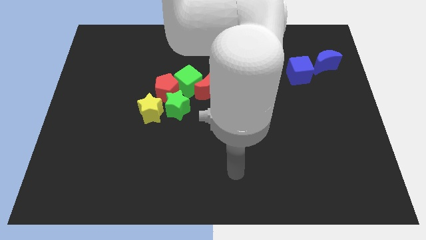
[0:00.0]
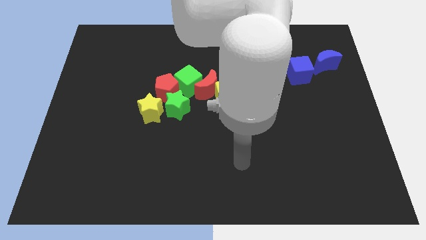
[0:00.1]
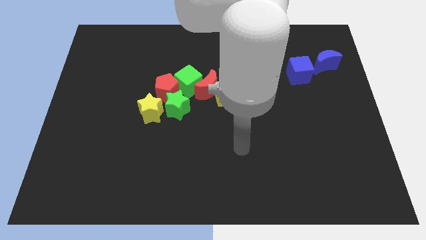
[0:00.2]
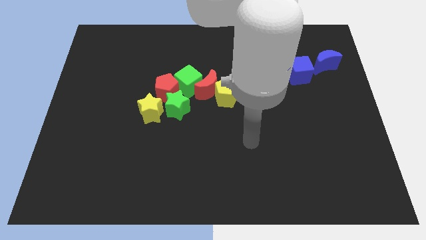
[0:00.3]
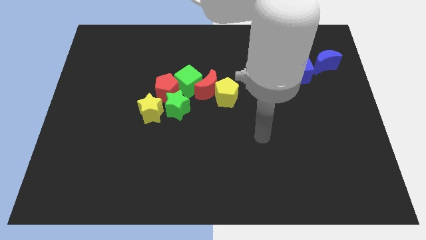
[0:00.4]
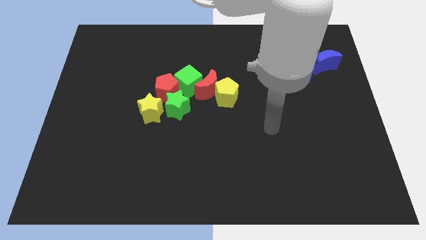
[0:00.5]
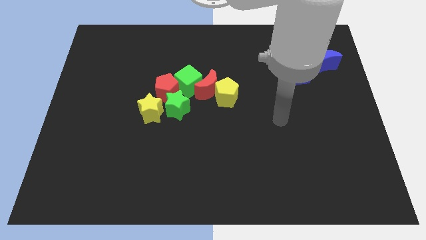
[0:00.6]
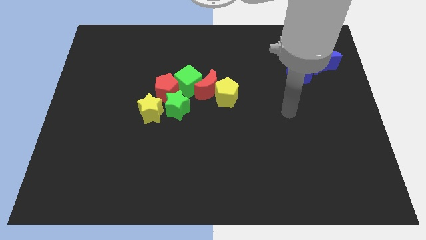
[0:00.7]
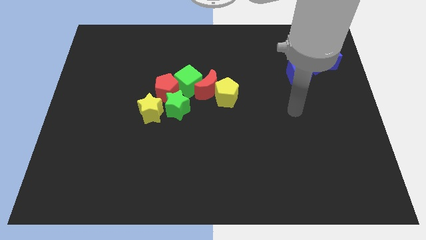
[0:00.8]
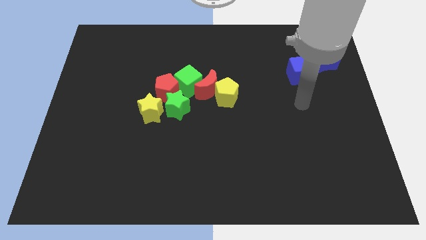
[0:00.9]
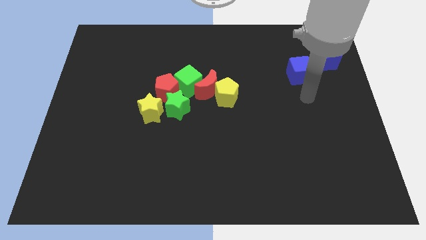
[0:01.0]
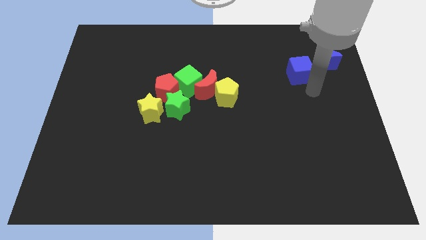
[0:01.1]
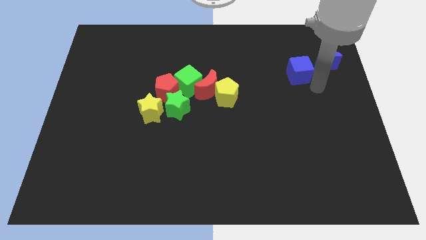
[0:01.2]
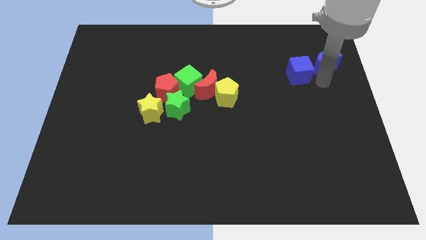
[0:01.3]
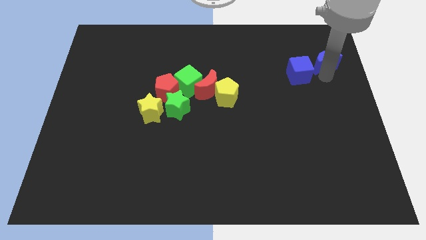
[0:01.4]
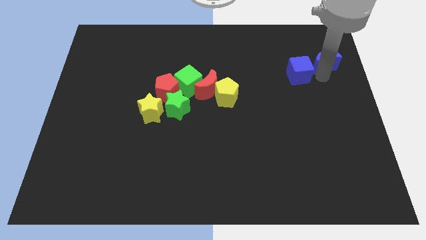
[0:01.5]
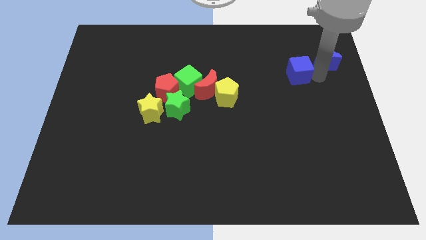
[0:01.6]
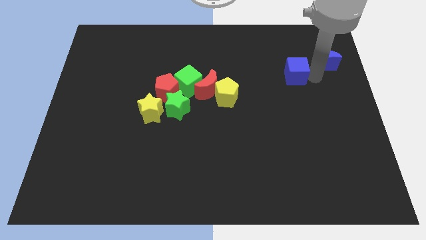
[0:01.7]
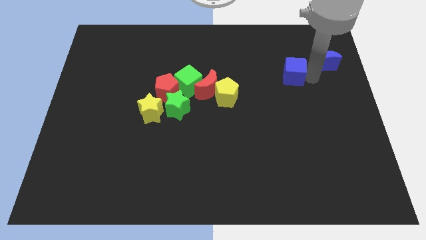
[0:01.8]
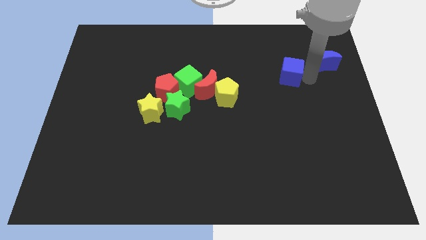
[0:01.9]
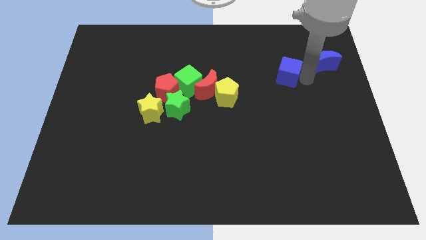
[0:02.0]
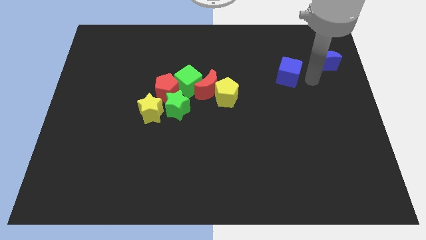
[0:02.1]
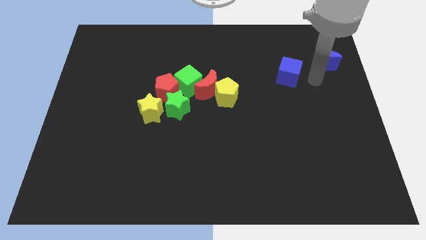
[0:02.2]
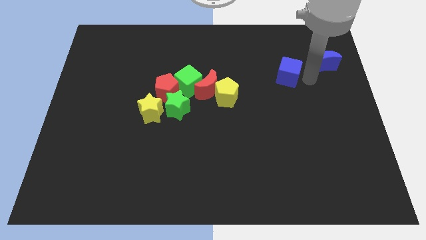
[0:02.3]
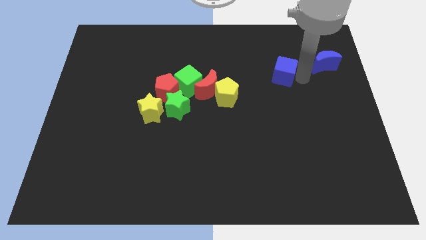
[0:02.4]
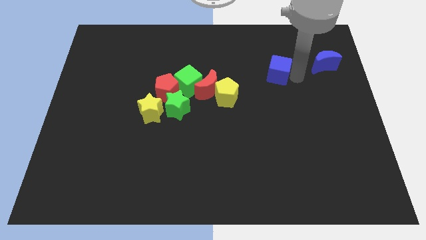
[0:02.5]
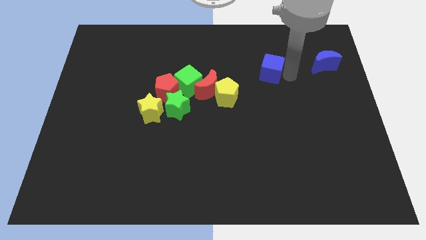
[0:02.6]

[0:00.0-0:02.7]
slide the blue cube a little left

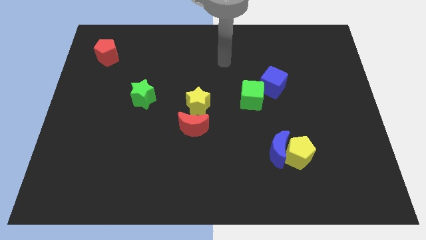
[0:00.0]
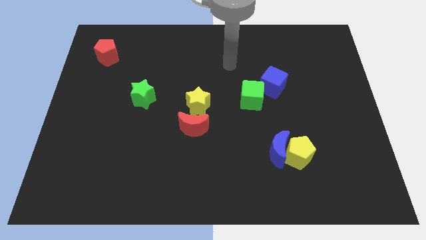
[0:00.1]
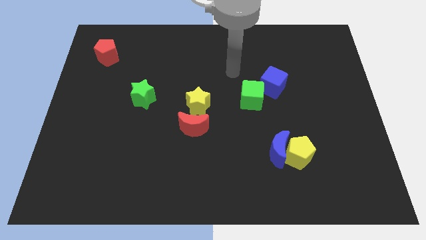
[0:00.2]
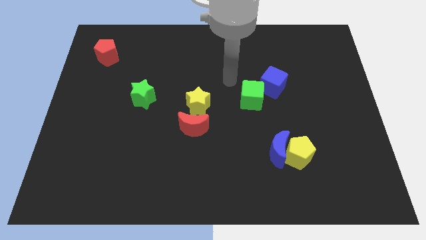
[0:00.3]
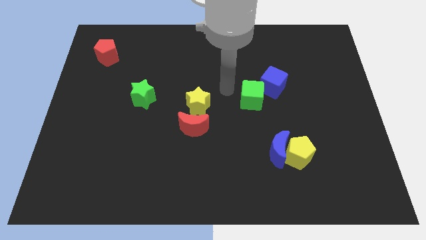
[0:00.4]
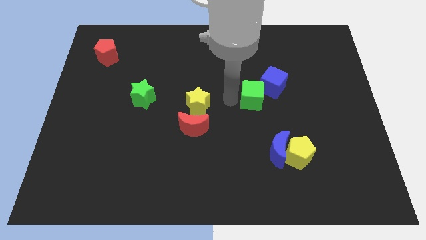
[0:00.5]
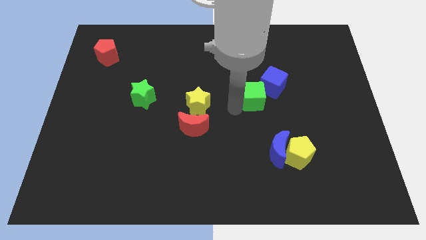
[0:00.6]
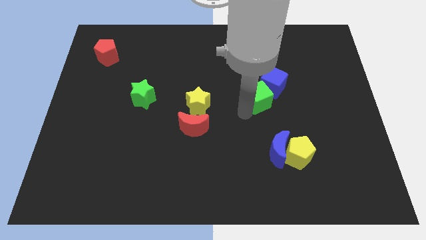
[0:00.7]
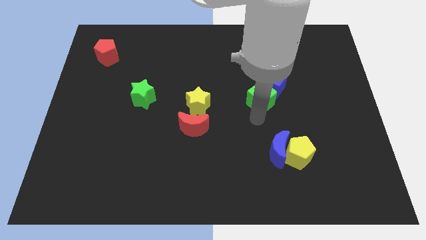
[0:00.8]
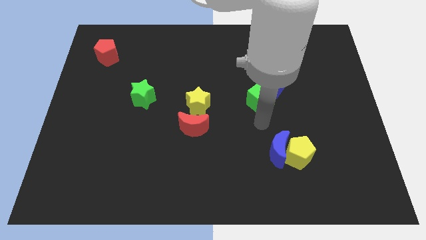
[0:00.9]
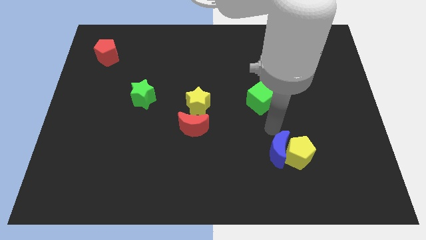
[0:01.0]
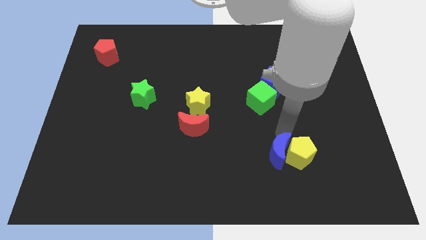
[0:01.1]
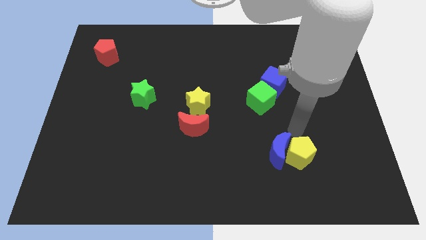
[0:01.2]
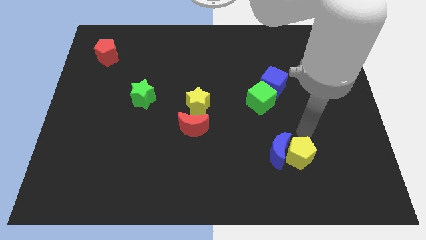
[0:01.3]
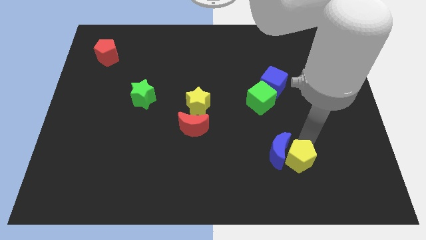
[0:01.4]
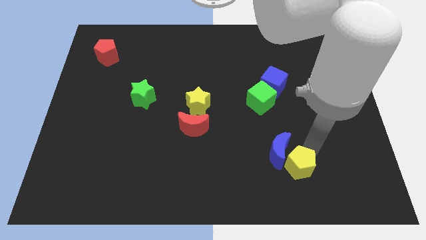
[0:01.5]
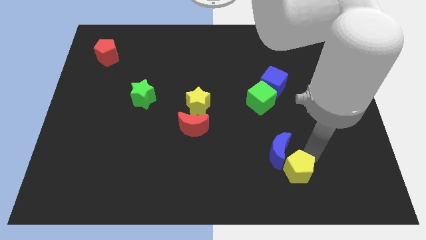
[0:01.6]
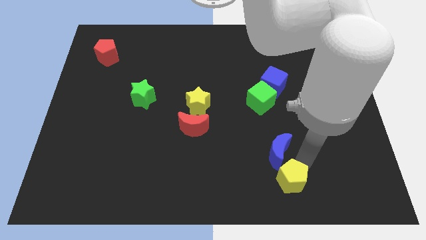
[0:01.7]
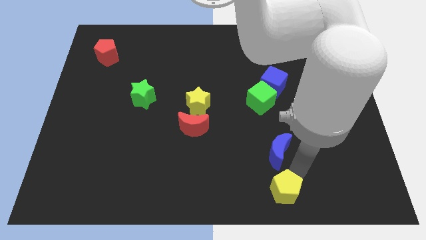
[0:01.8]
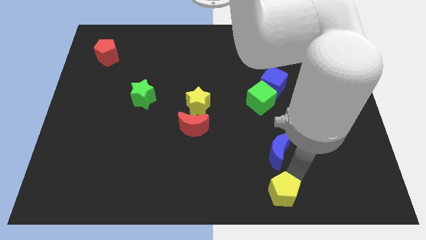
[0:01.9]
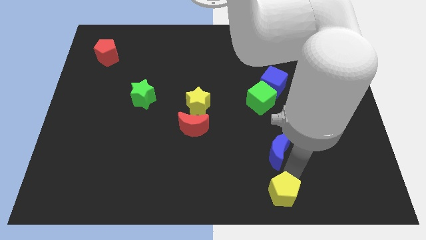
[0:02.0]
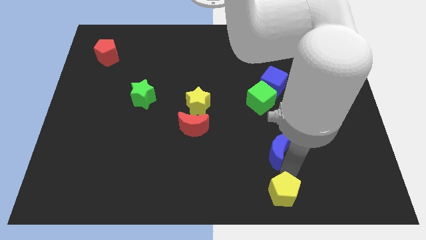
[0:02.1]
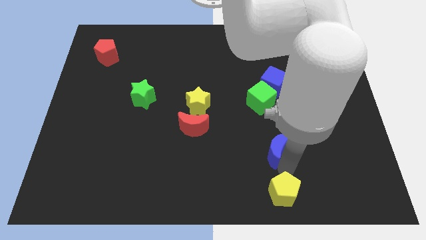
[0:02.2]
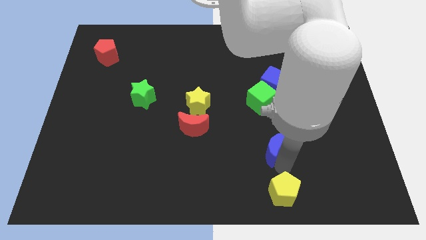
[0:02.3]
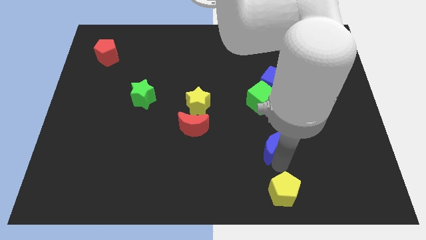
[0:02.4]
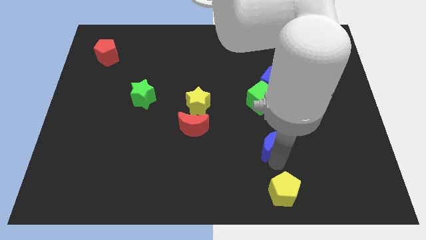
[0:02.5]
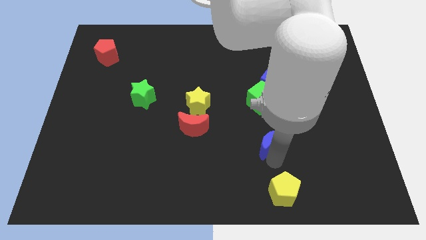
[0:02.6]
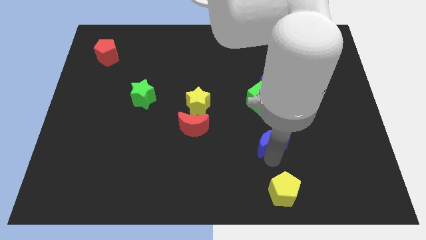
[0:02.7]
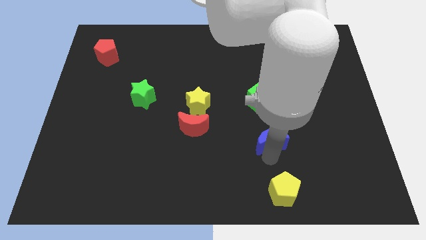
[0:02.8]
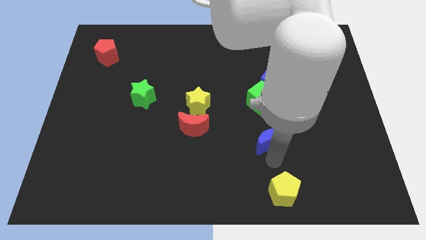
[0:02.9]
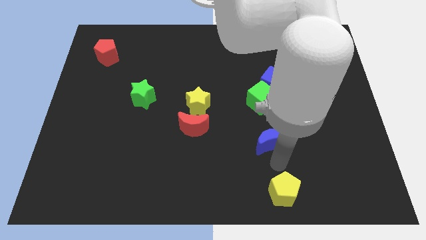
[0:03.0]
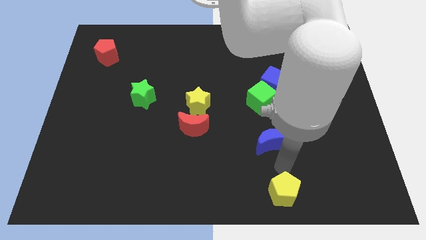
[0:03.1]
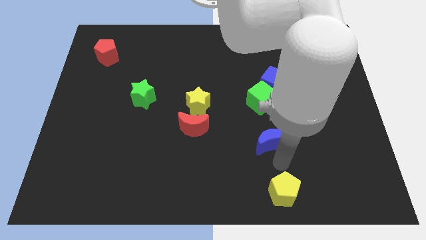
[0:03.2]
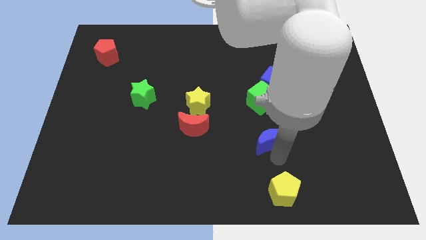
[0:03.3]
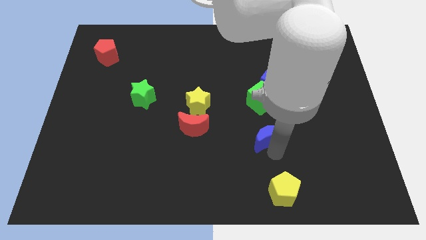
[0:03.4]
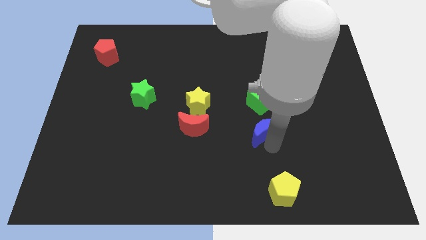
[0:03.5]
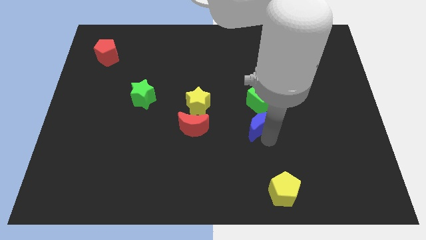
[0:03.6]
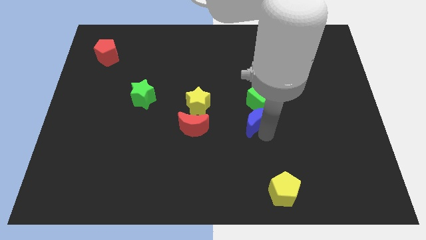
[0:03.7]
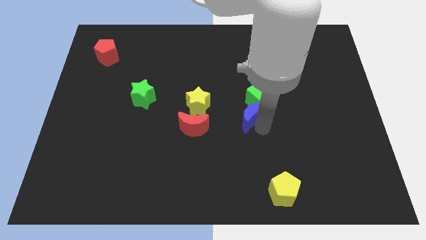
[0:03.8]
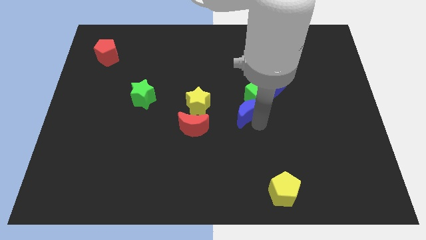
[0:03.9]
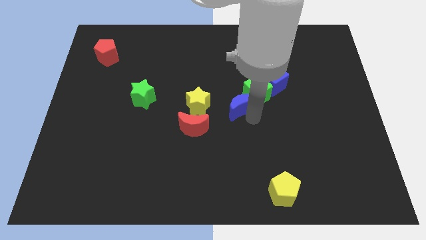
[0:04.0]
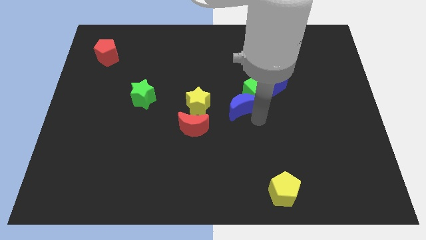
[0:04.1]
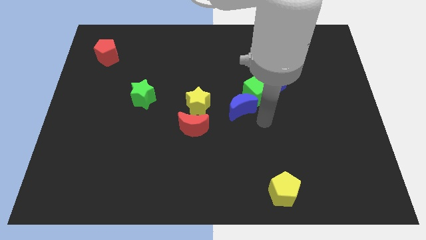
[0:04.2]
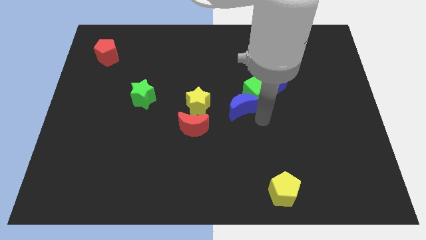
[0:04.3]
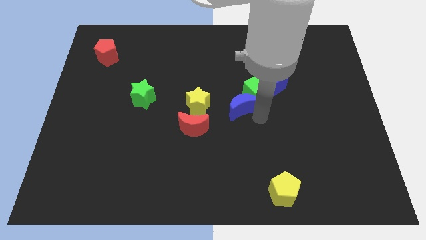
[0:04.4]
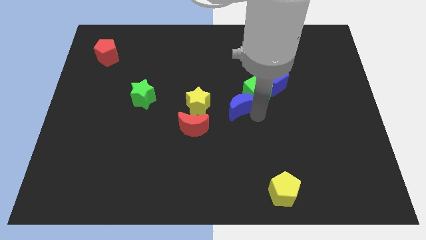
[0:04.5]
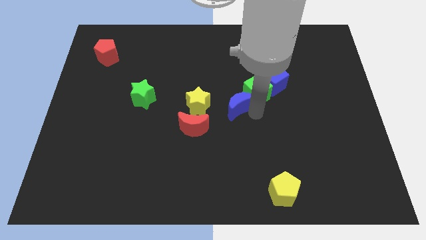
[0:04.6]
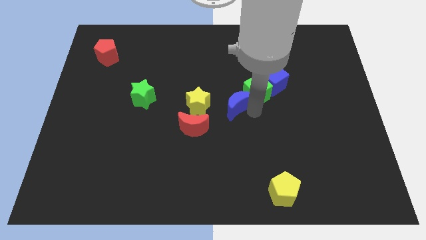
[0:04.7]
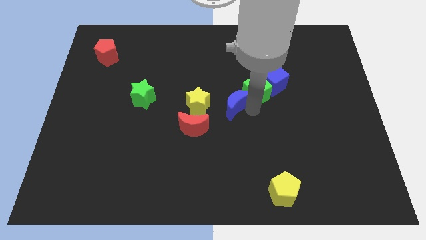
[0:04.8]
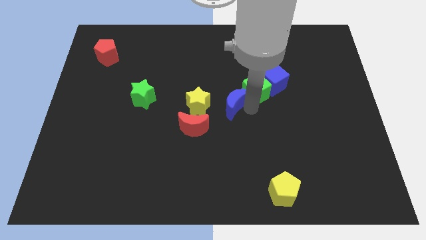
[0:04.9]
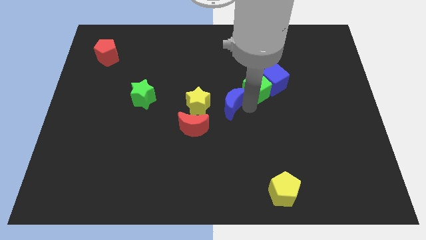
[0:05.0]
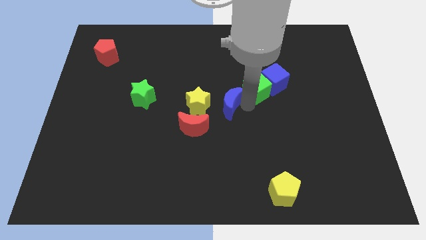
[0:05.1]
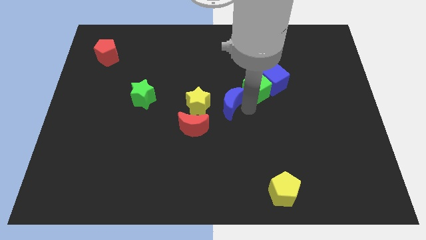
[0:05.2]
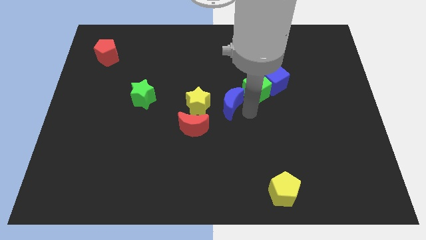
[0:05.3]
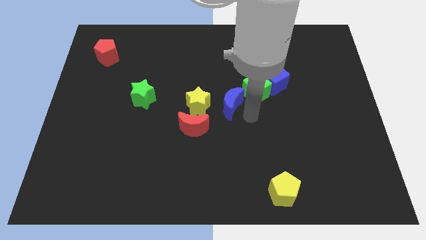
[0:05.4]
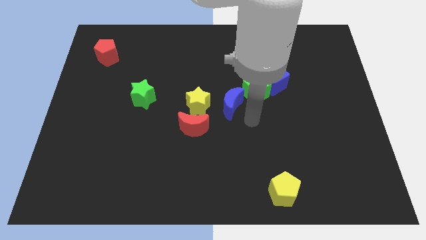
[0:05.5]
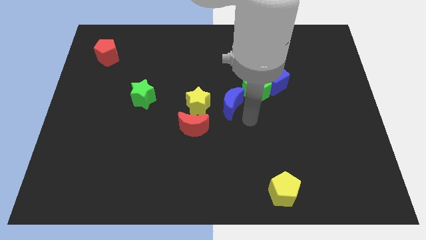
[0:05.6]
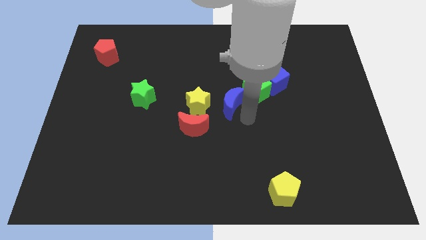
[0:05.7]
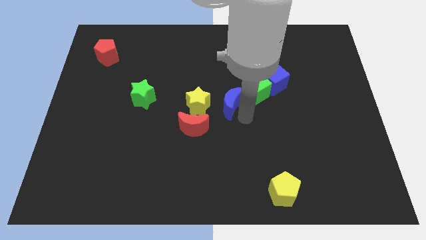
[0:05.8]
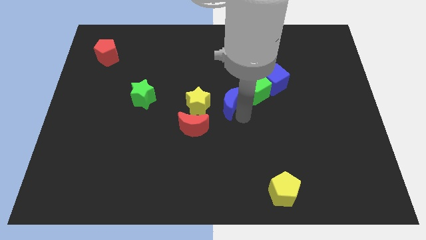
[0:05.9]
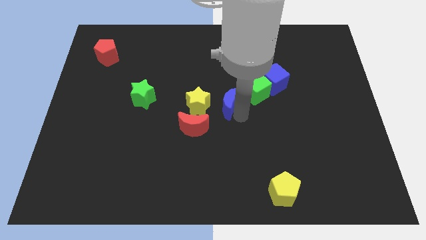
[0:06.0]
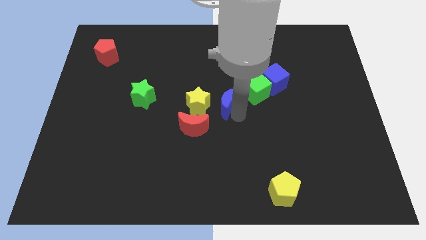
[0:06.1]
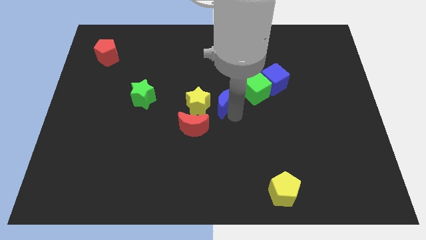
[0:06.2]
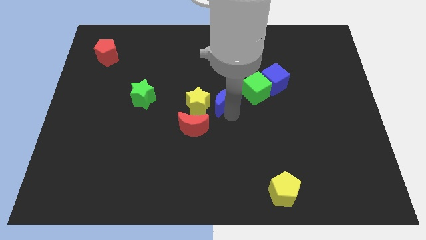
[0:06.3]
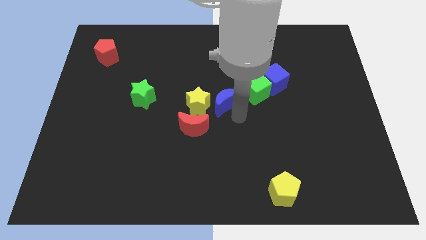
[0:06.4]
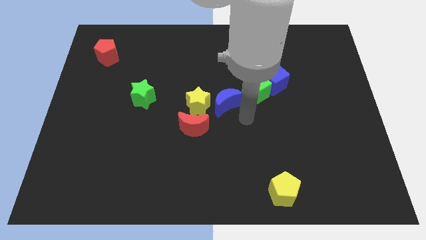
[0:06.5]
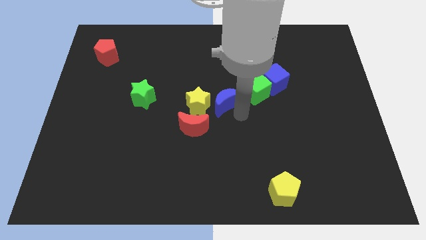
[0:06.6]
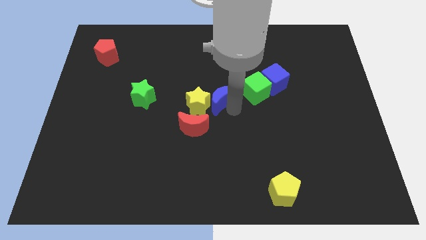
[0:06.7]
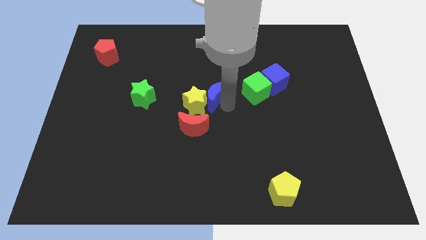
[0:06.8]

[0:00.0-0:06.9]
slide the blue moon diagonally upwards and left
